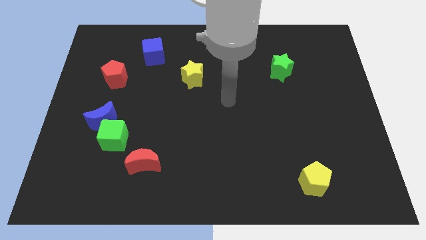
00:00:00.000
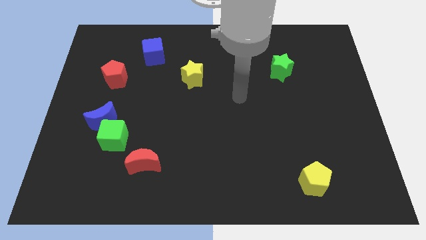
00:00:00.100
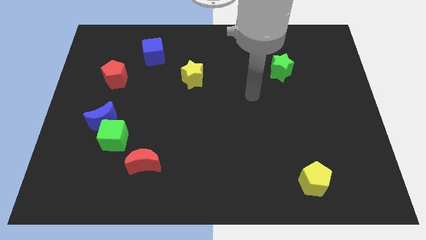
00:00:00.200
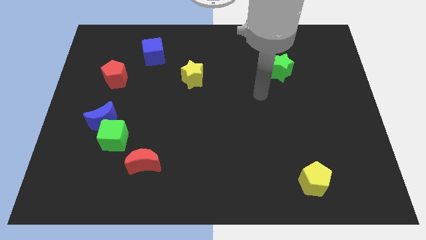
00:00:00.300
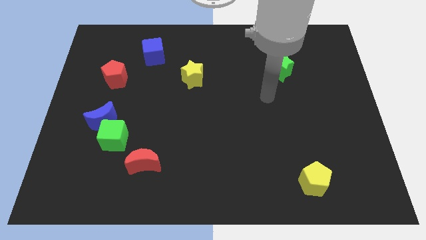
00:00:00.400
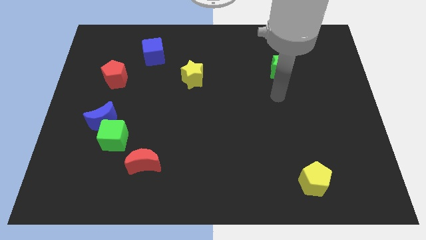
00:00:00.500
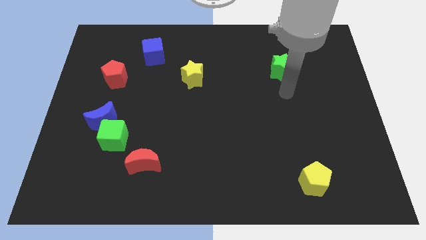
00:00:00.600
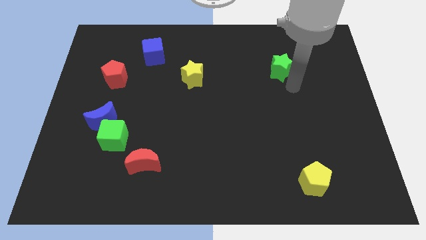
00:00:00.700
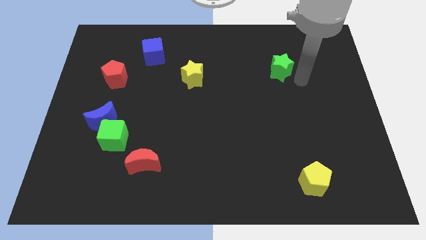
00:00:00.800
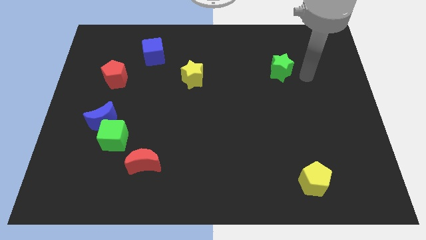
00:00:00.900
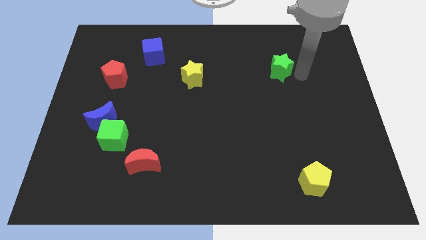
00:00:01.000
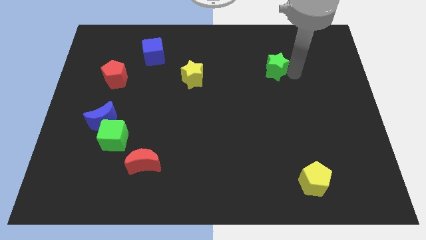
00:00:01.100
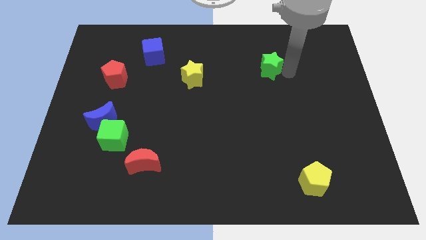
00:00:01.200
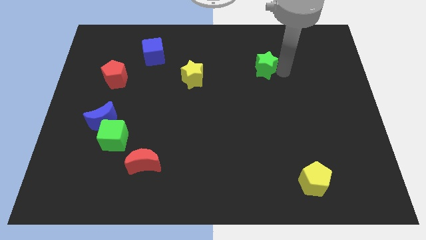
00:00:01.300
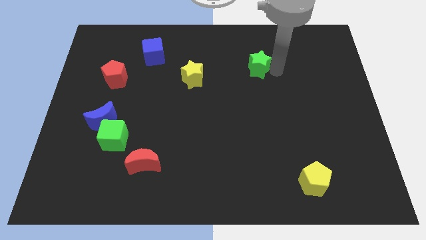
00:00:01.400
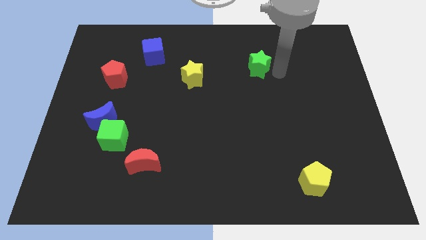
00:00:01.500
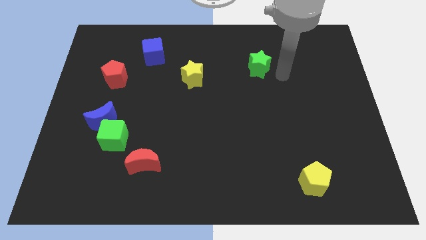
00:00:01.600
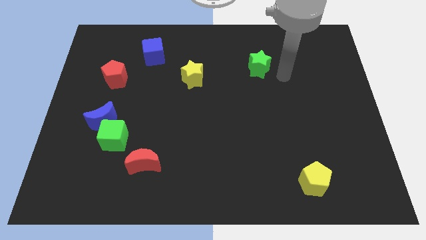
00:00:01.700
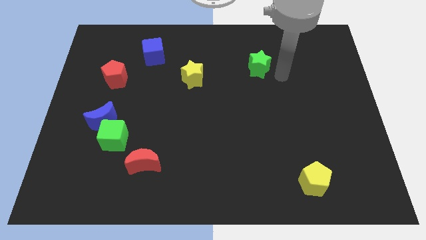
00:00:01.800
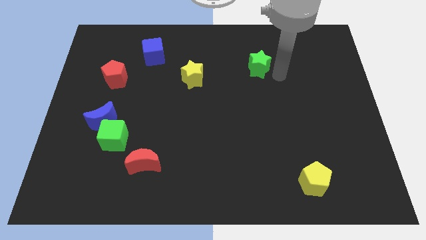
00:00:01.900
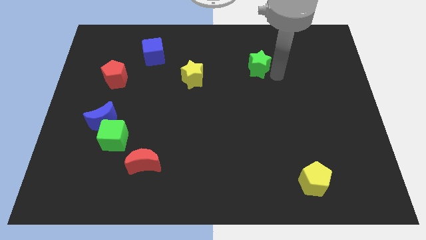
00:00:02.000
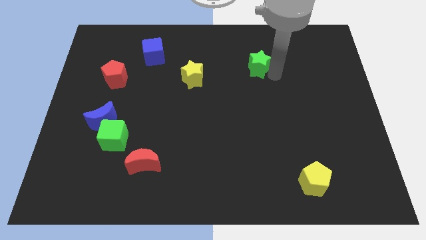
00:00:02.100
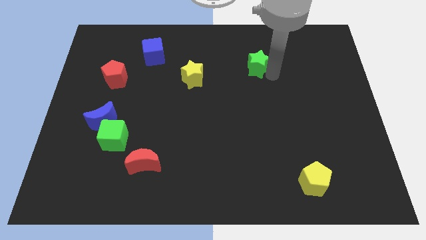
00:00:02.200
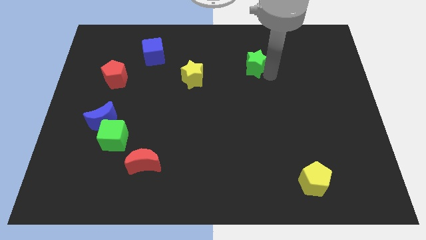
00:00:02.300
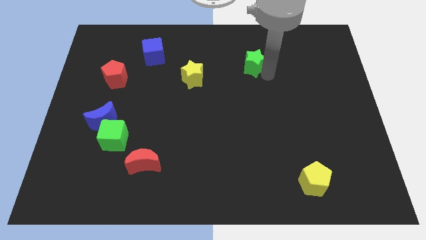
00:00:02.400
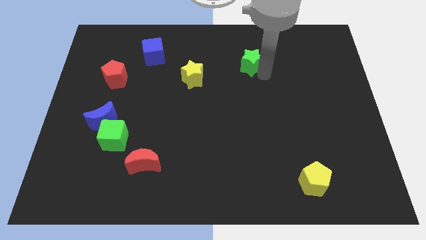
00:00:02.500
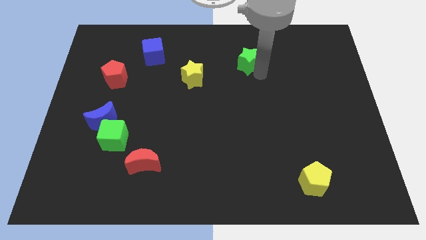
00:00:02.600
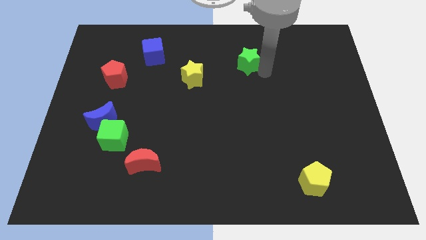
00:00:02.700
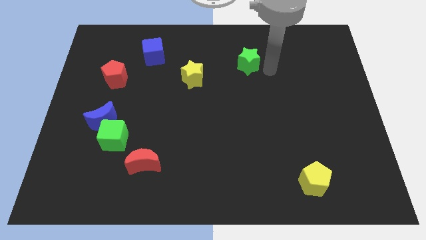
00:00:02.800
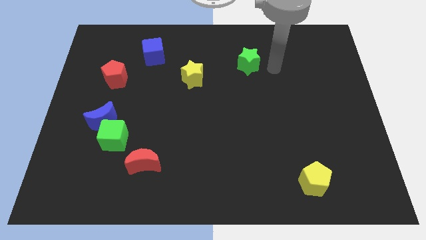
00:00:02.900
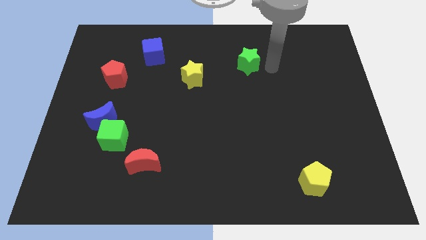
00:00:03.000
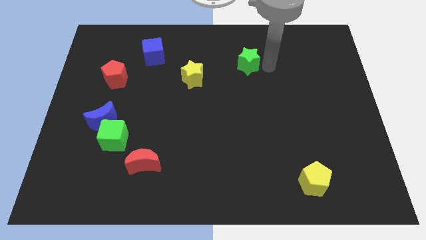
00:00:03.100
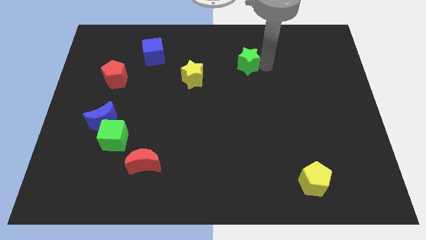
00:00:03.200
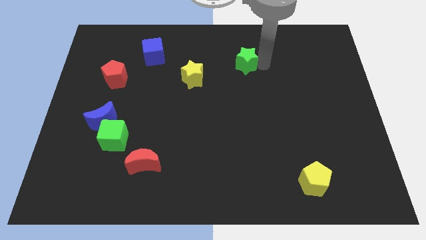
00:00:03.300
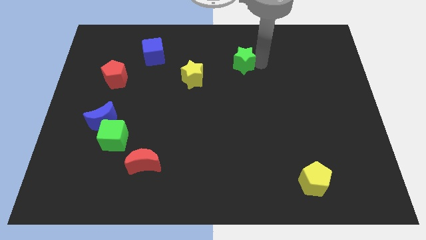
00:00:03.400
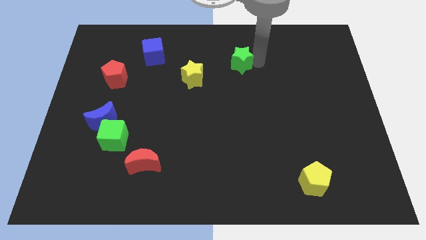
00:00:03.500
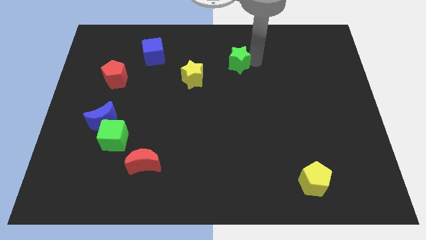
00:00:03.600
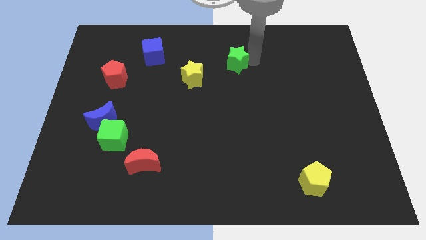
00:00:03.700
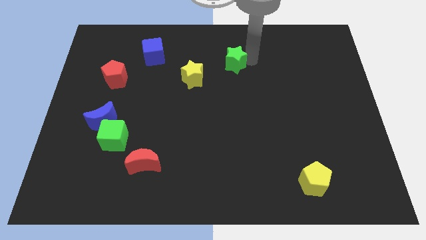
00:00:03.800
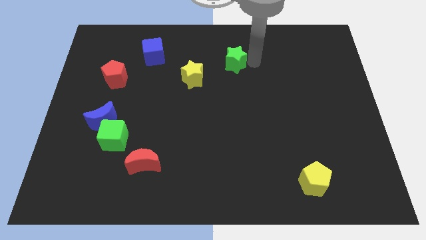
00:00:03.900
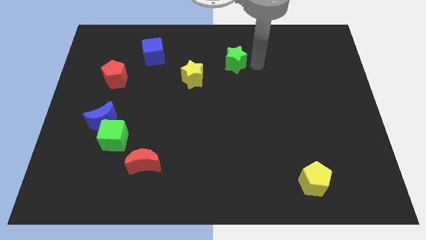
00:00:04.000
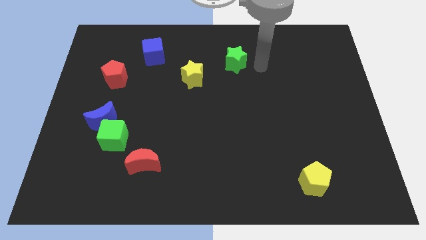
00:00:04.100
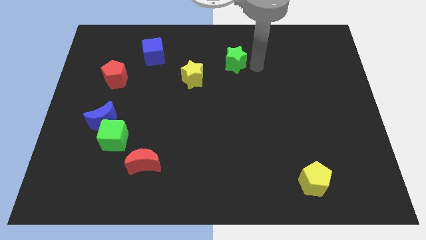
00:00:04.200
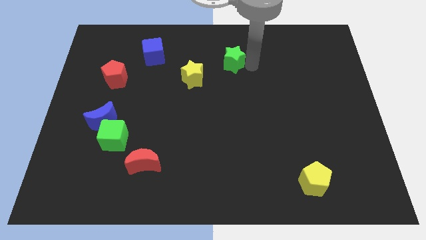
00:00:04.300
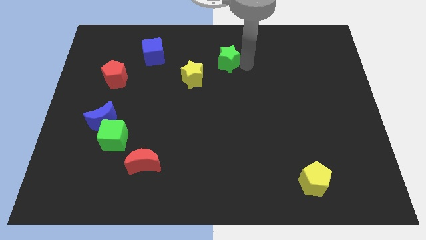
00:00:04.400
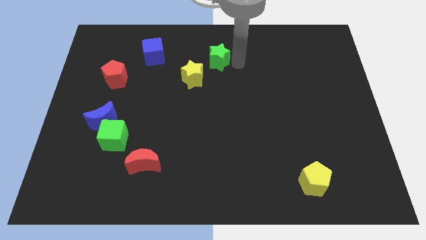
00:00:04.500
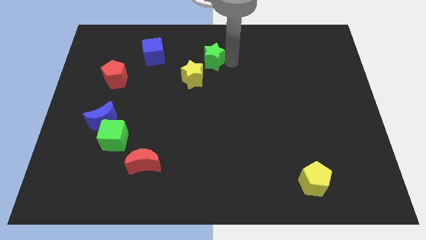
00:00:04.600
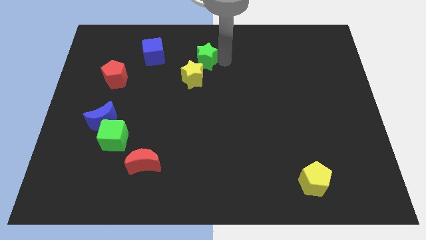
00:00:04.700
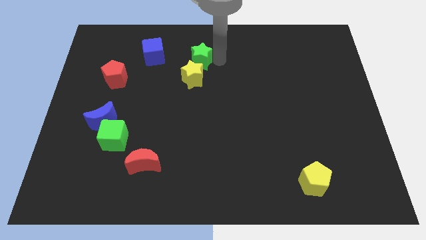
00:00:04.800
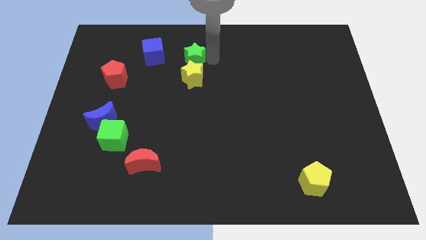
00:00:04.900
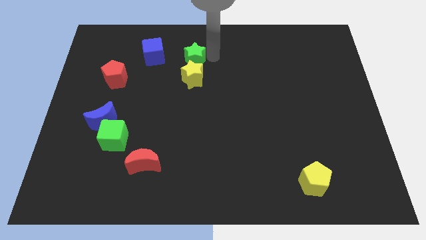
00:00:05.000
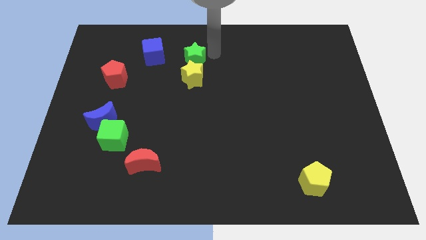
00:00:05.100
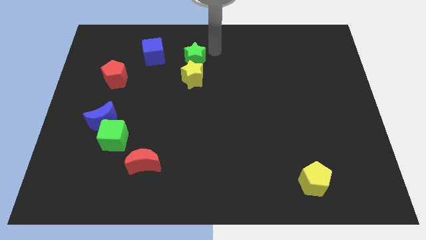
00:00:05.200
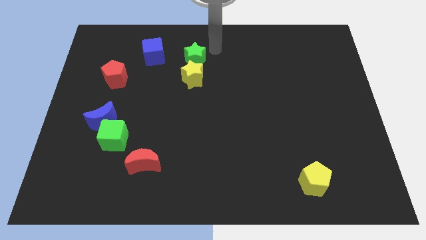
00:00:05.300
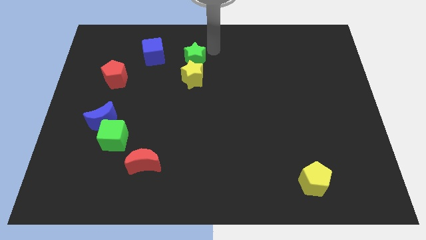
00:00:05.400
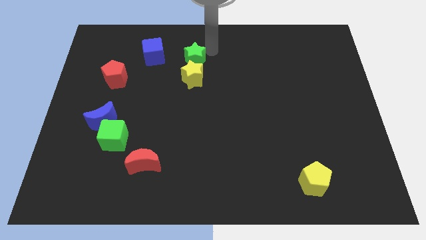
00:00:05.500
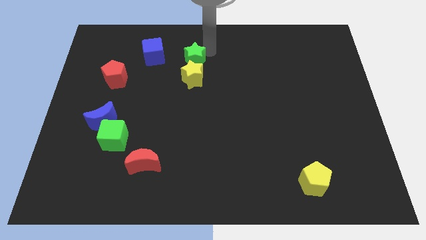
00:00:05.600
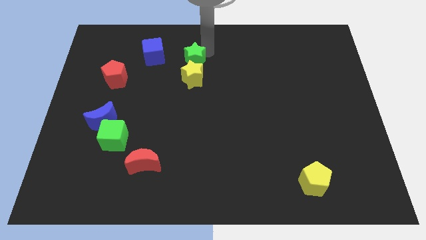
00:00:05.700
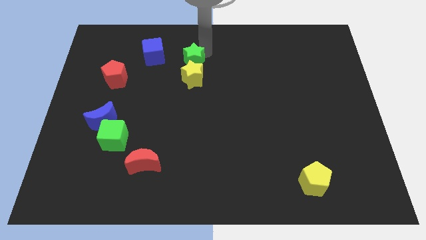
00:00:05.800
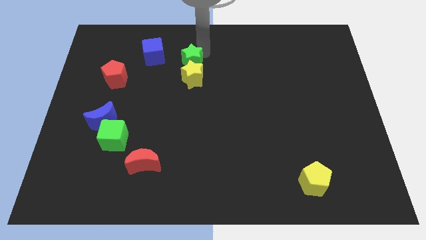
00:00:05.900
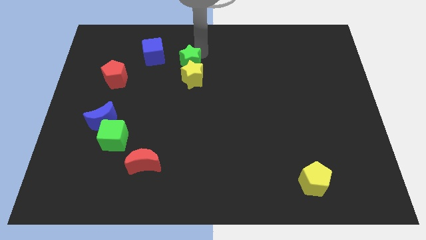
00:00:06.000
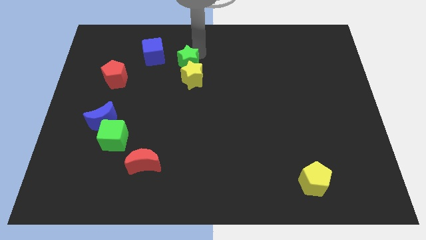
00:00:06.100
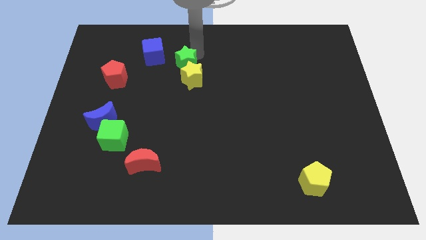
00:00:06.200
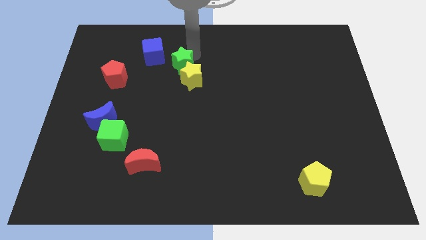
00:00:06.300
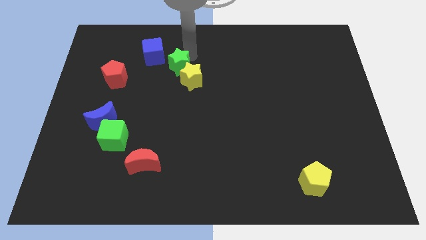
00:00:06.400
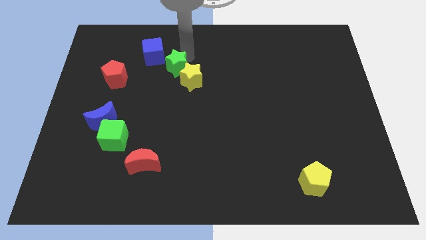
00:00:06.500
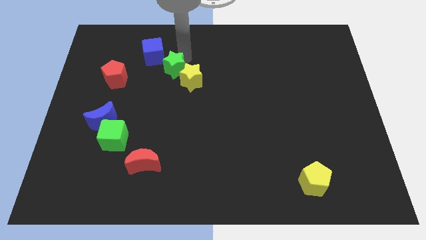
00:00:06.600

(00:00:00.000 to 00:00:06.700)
move the green star right of the red pentagon

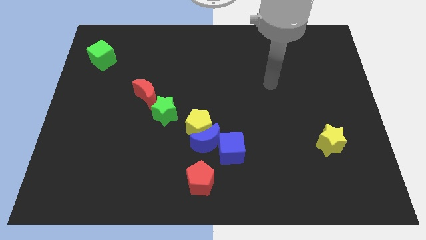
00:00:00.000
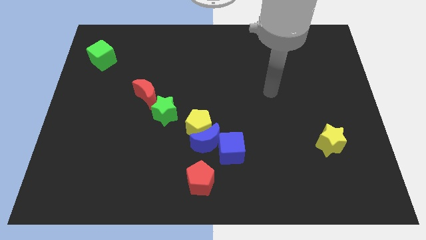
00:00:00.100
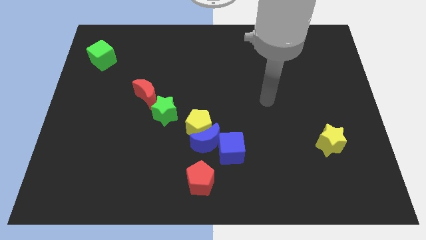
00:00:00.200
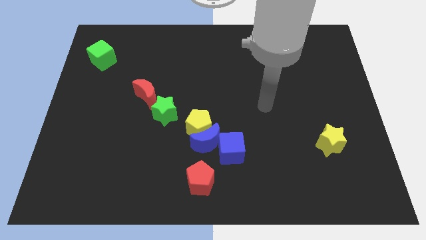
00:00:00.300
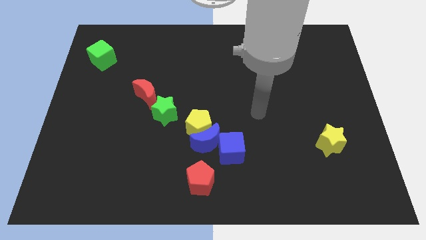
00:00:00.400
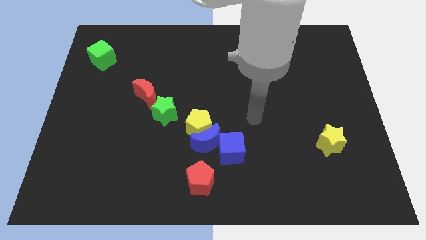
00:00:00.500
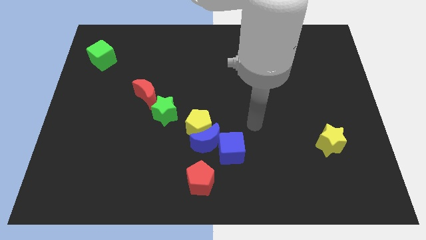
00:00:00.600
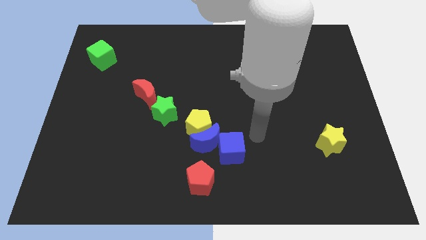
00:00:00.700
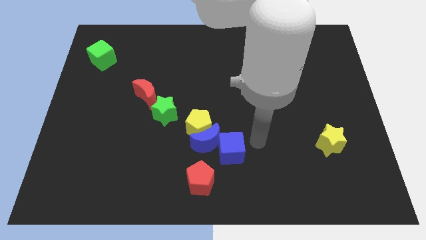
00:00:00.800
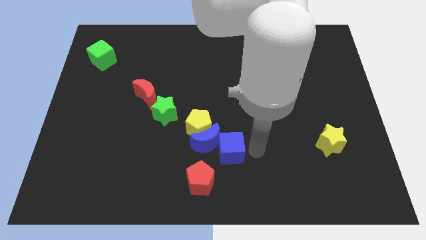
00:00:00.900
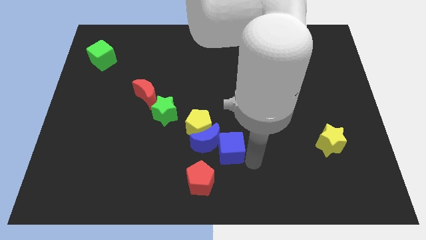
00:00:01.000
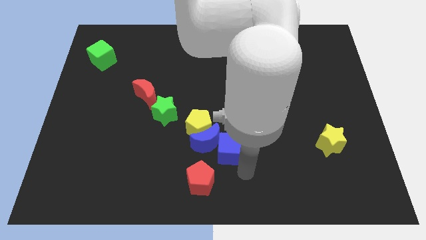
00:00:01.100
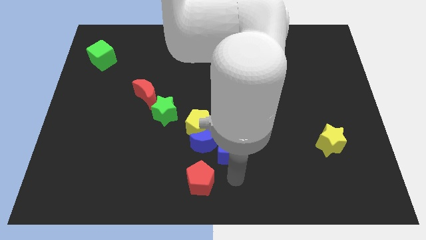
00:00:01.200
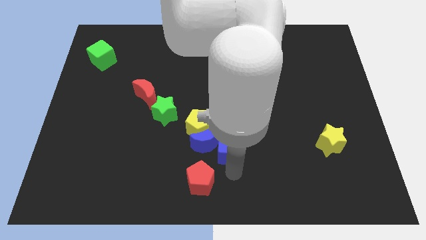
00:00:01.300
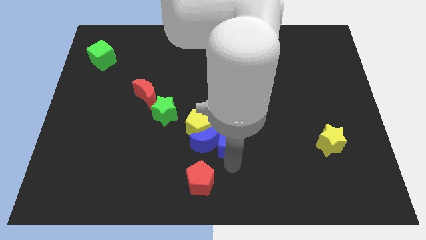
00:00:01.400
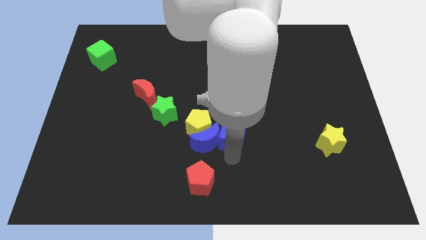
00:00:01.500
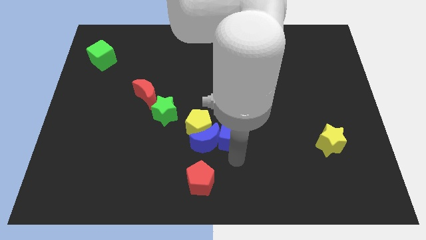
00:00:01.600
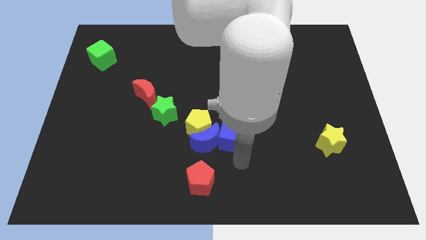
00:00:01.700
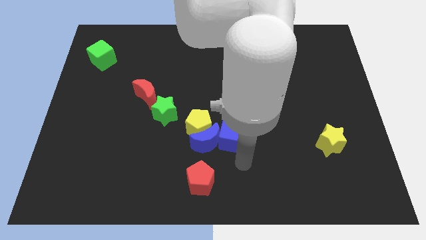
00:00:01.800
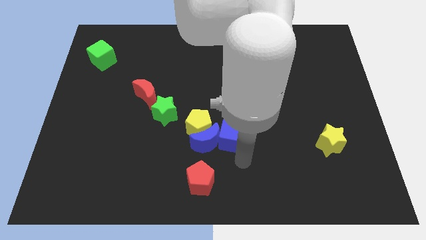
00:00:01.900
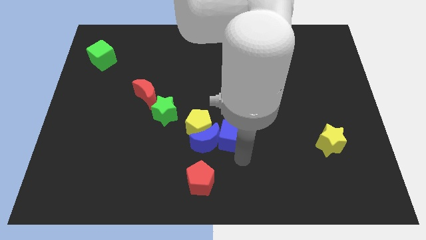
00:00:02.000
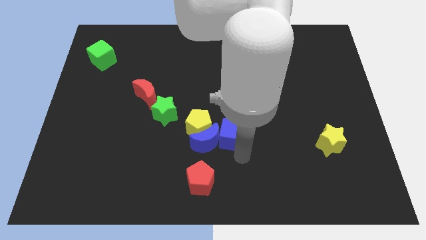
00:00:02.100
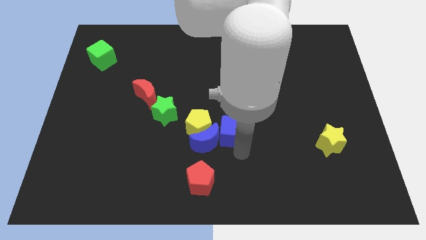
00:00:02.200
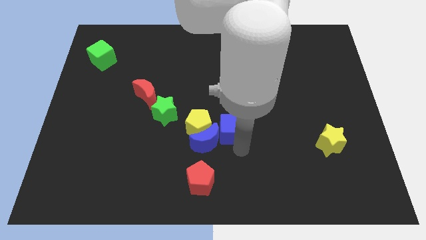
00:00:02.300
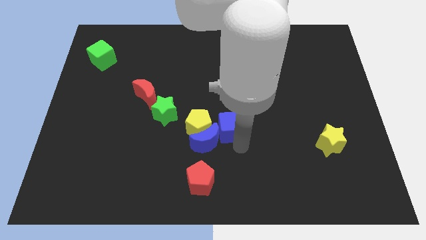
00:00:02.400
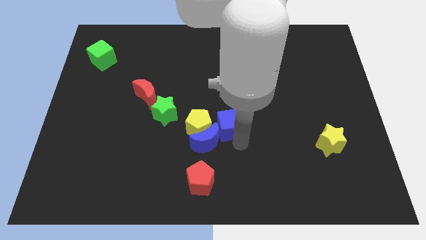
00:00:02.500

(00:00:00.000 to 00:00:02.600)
put the blue cube diagonally up and to the right of the yellow pentagon
